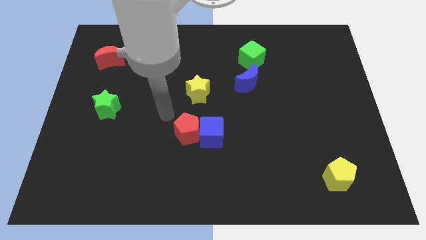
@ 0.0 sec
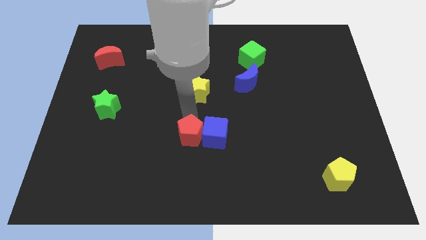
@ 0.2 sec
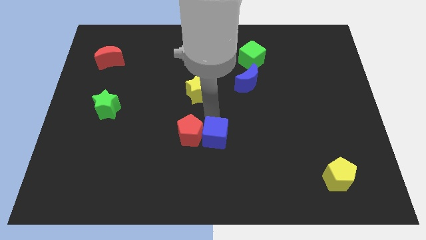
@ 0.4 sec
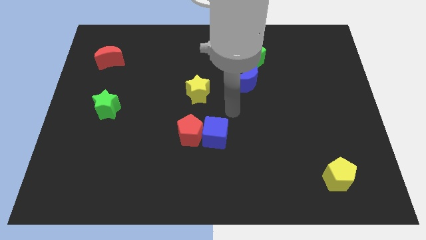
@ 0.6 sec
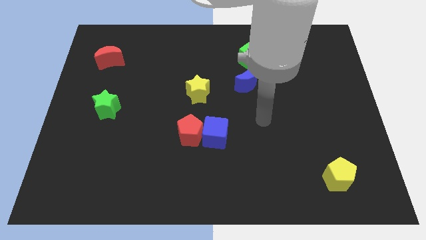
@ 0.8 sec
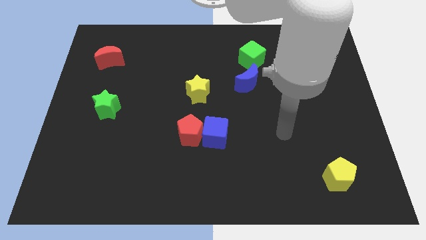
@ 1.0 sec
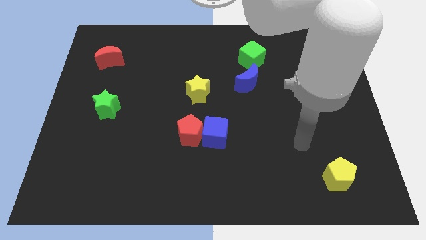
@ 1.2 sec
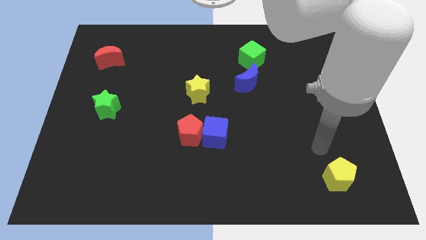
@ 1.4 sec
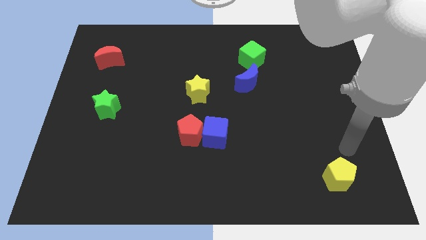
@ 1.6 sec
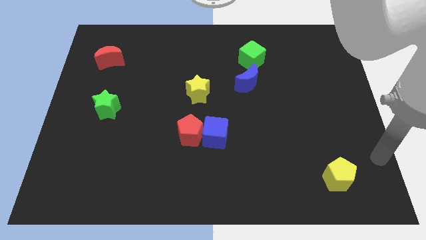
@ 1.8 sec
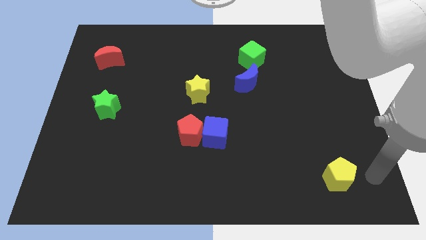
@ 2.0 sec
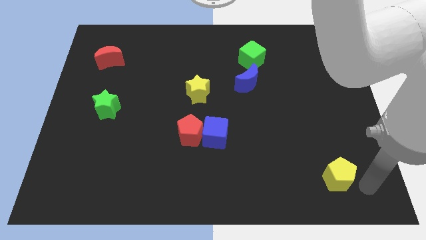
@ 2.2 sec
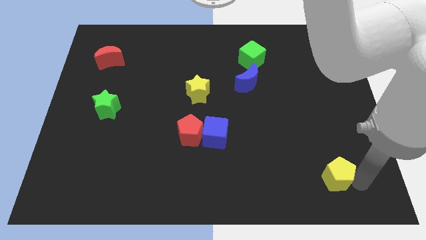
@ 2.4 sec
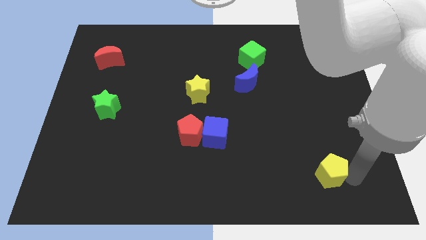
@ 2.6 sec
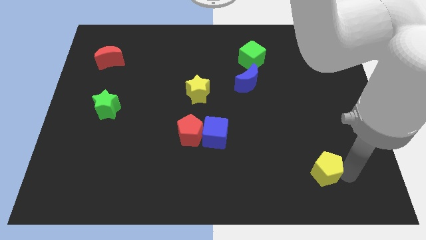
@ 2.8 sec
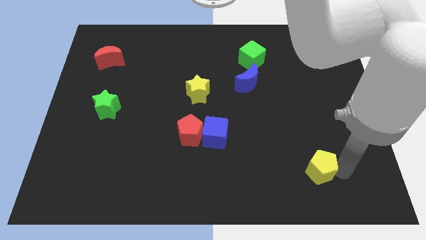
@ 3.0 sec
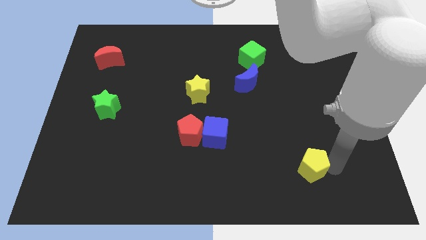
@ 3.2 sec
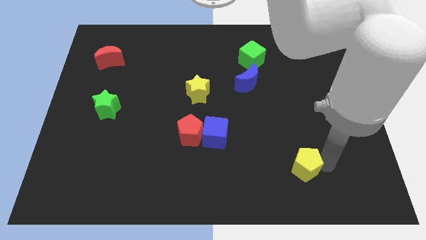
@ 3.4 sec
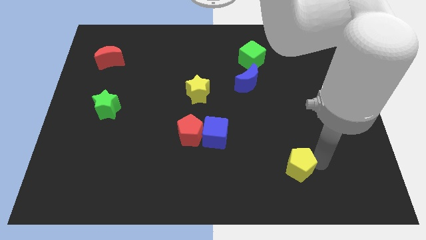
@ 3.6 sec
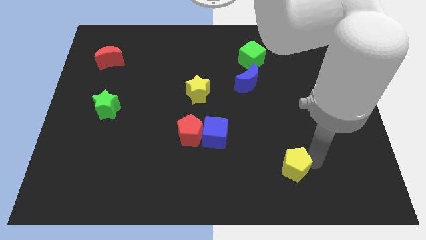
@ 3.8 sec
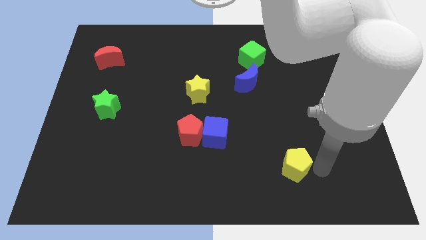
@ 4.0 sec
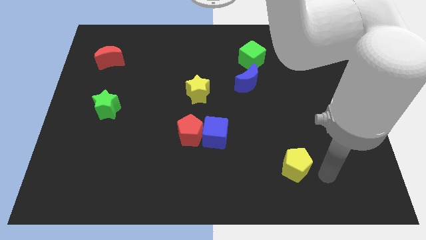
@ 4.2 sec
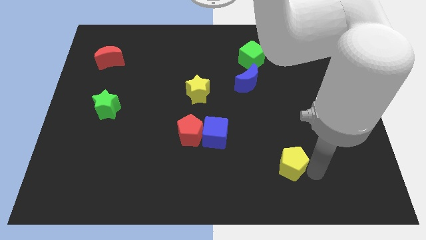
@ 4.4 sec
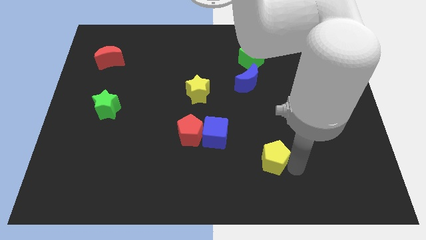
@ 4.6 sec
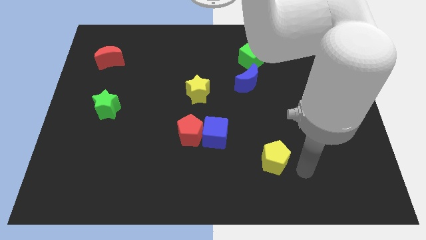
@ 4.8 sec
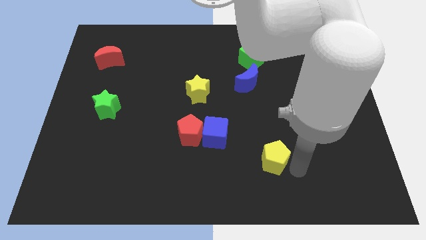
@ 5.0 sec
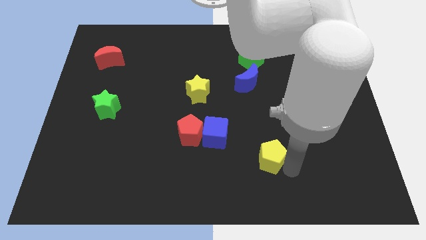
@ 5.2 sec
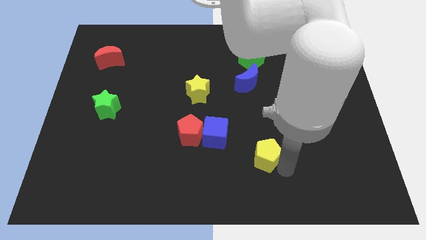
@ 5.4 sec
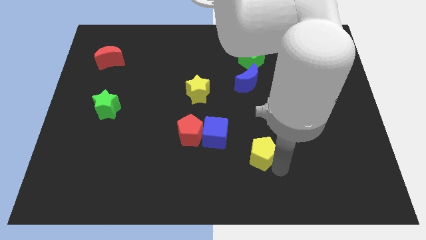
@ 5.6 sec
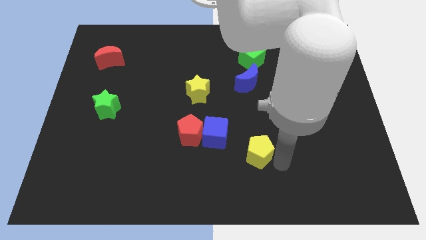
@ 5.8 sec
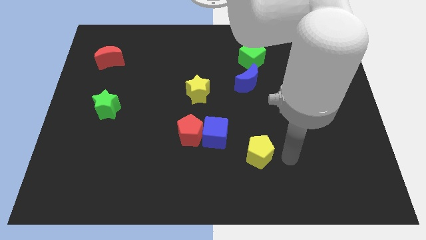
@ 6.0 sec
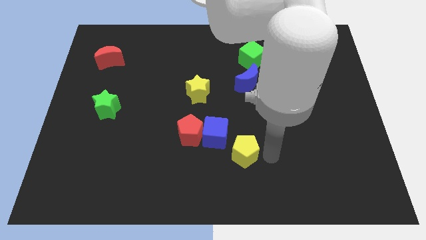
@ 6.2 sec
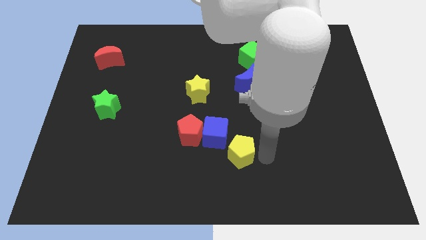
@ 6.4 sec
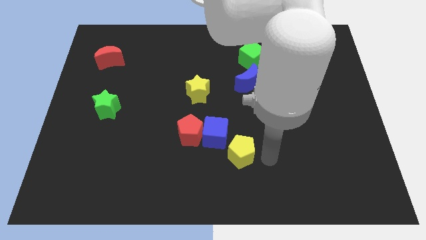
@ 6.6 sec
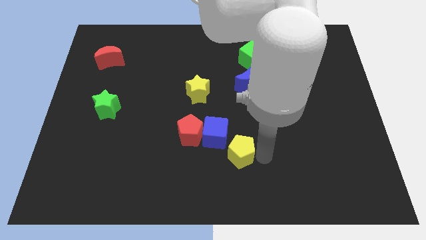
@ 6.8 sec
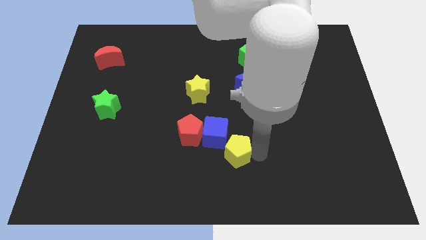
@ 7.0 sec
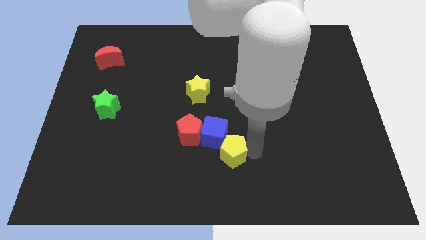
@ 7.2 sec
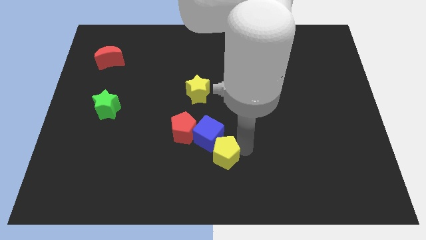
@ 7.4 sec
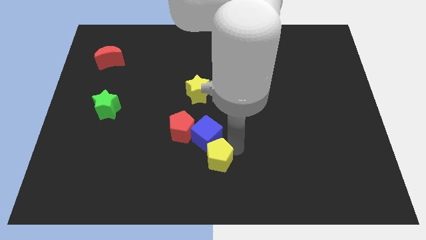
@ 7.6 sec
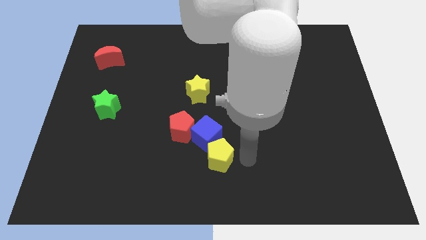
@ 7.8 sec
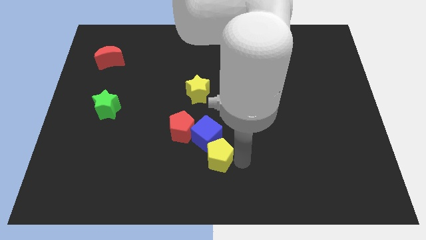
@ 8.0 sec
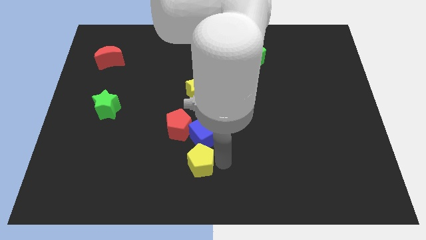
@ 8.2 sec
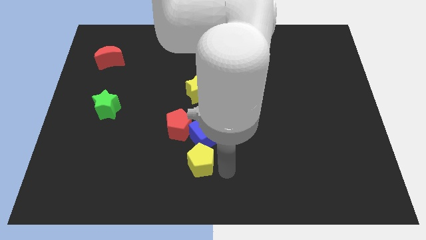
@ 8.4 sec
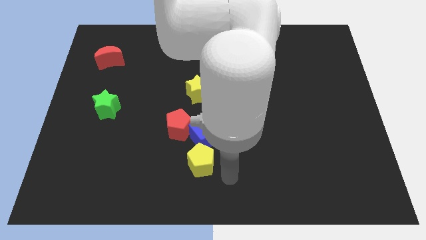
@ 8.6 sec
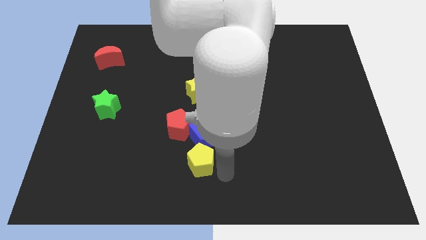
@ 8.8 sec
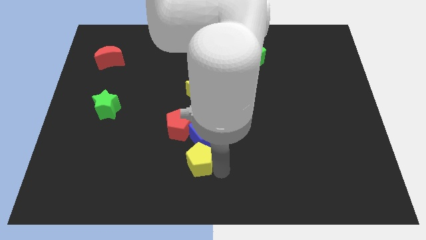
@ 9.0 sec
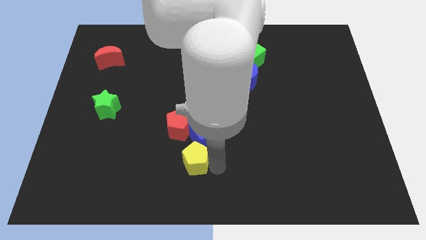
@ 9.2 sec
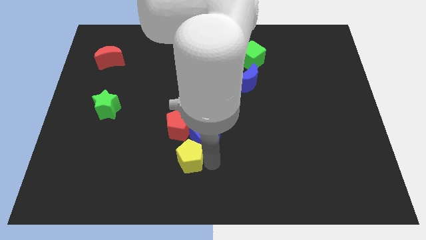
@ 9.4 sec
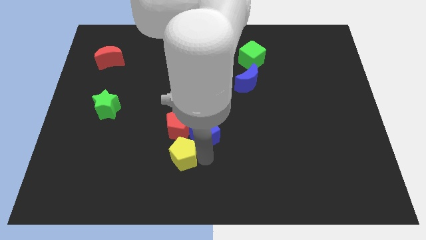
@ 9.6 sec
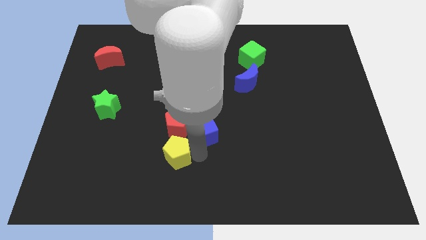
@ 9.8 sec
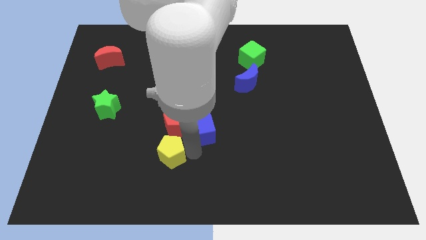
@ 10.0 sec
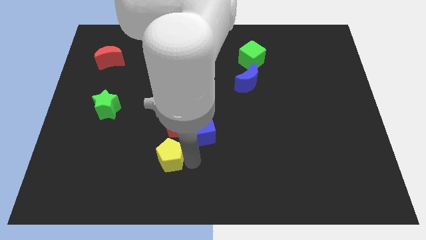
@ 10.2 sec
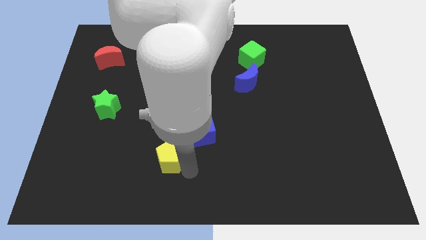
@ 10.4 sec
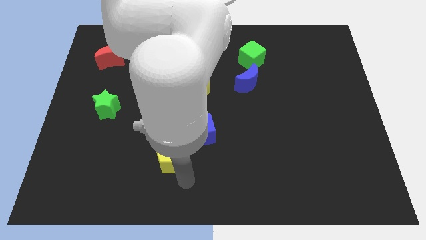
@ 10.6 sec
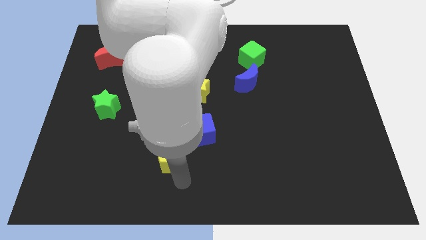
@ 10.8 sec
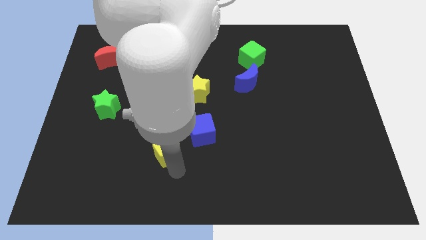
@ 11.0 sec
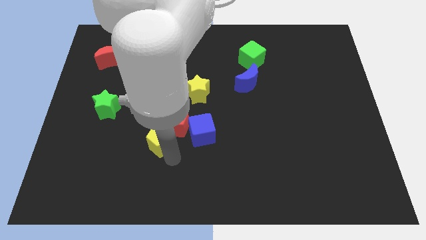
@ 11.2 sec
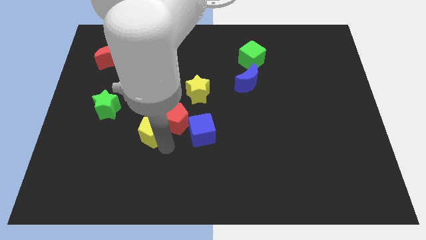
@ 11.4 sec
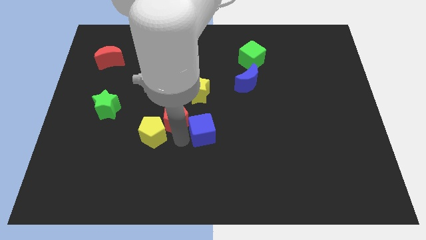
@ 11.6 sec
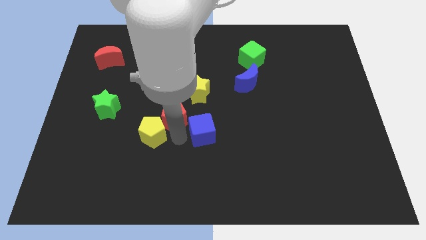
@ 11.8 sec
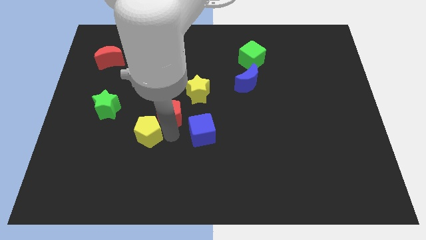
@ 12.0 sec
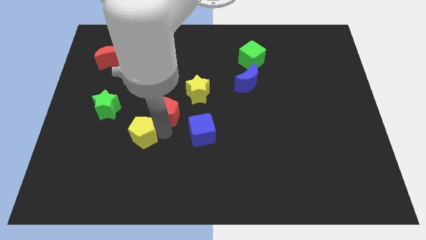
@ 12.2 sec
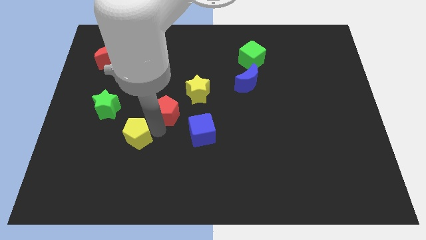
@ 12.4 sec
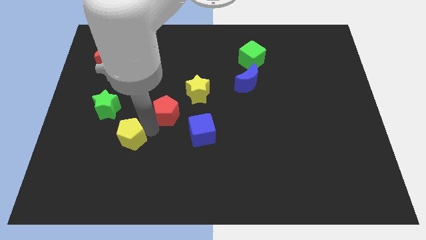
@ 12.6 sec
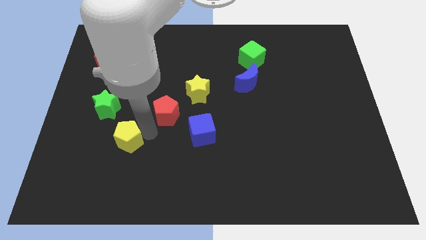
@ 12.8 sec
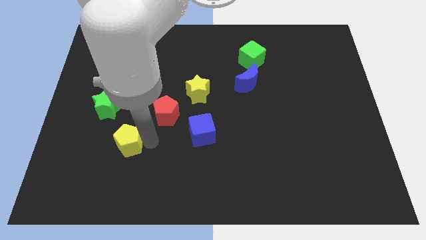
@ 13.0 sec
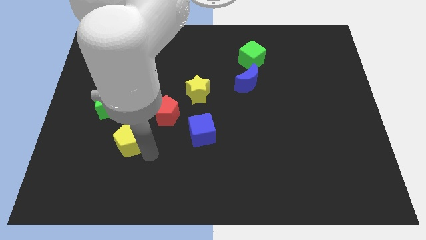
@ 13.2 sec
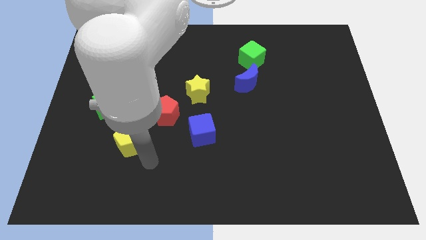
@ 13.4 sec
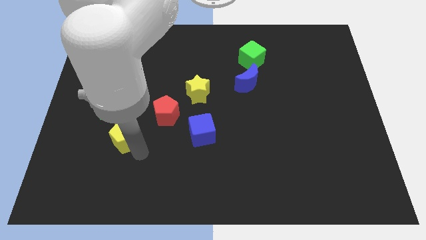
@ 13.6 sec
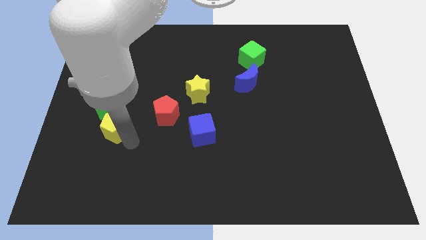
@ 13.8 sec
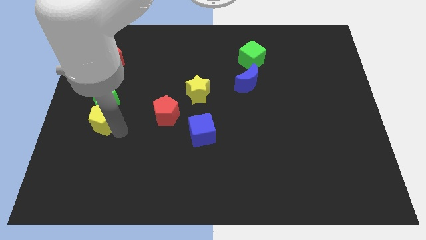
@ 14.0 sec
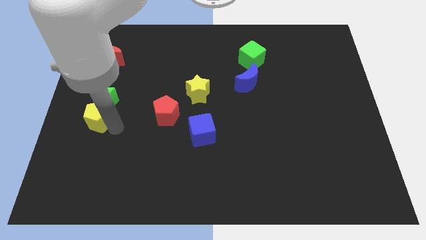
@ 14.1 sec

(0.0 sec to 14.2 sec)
move the yellow pentagon to the center left
